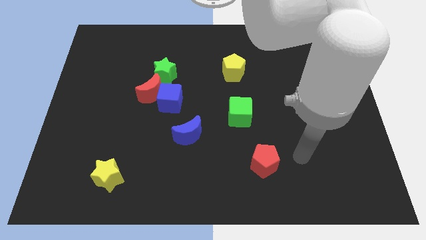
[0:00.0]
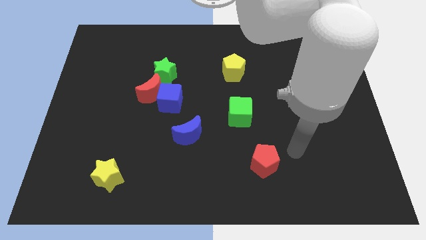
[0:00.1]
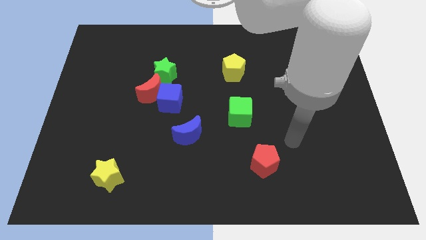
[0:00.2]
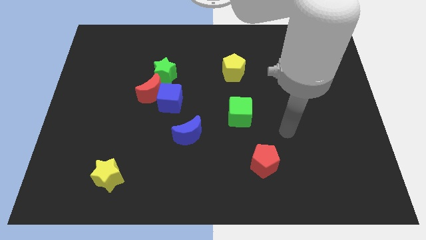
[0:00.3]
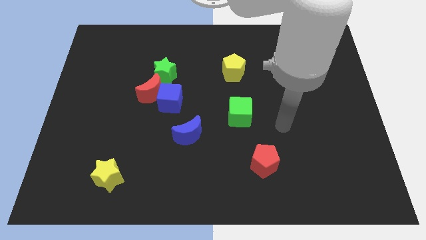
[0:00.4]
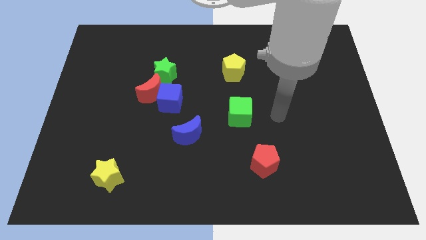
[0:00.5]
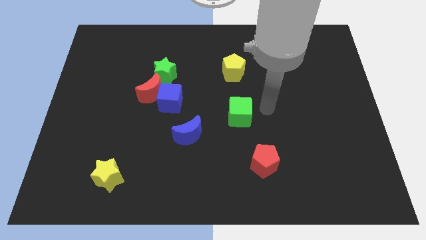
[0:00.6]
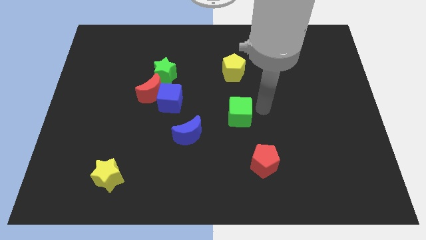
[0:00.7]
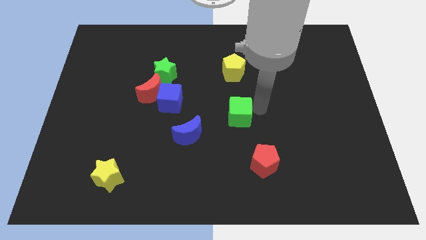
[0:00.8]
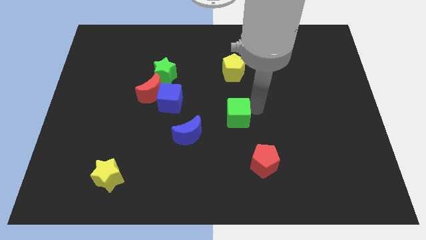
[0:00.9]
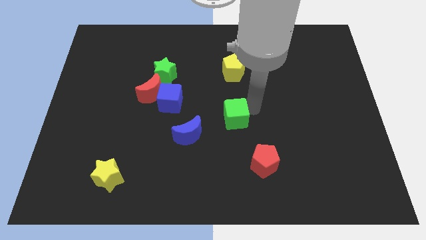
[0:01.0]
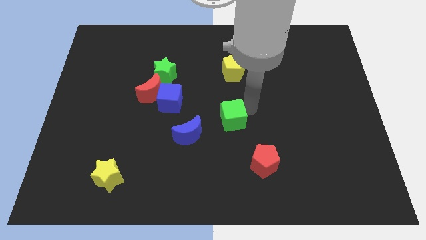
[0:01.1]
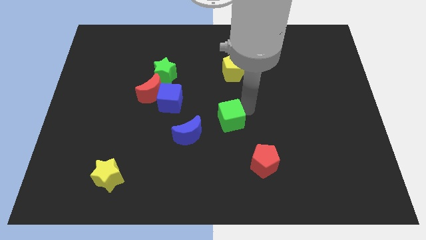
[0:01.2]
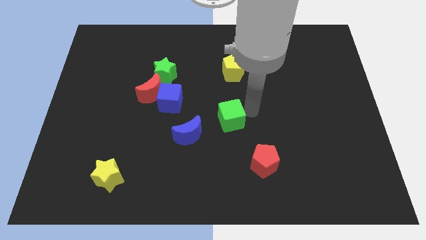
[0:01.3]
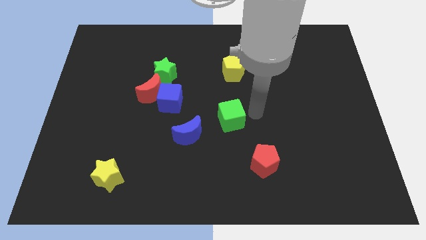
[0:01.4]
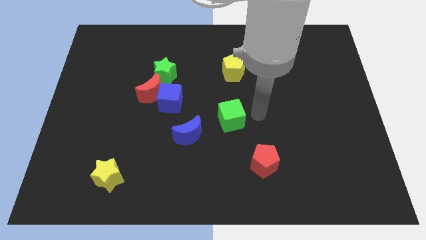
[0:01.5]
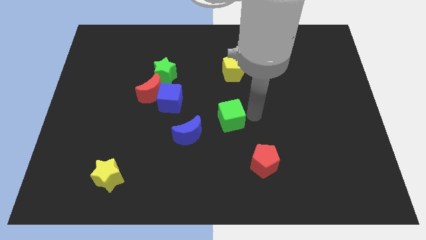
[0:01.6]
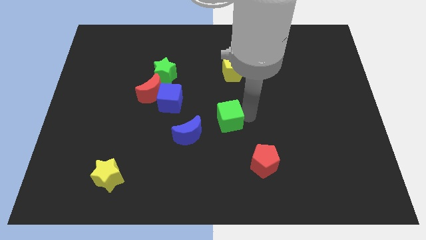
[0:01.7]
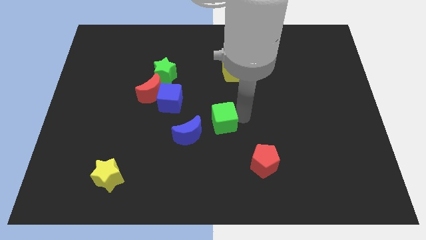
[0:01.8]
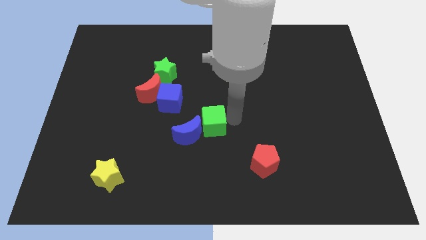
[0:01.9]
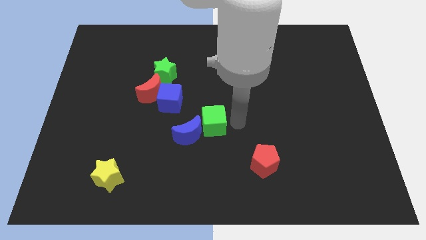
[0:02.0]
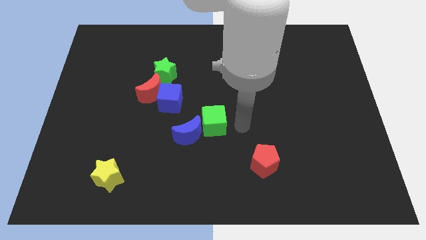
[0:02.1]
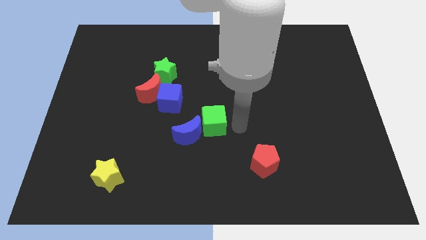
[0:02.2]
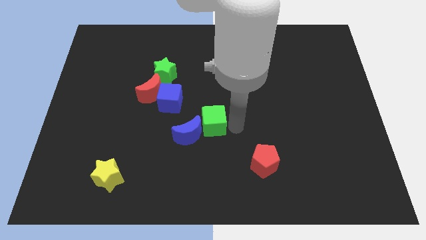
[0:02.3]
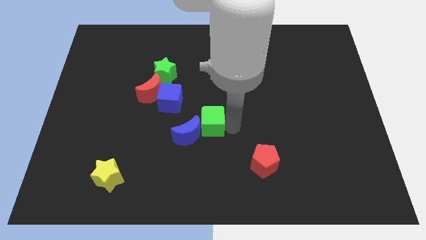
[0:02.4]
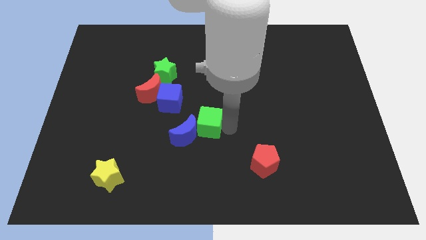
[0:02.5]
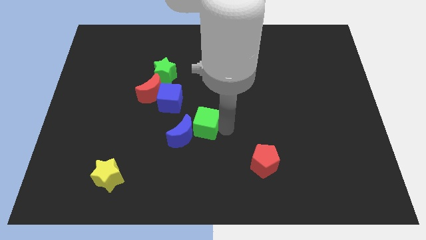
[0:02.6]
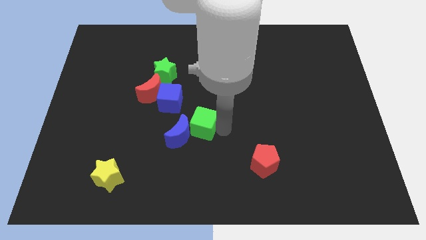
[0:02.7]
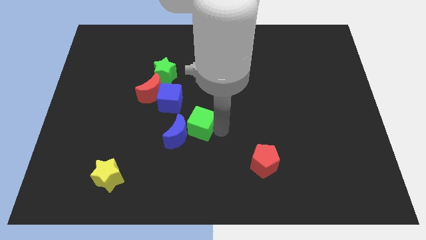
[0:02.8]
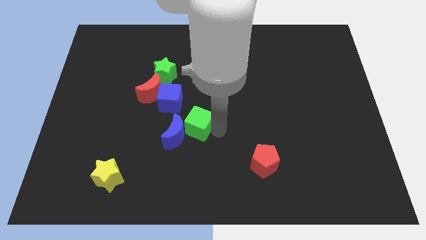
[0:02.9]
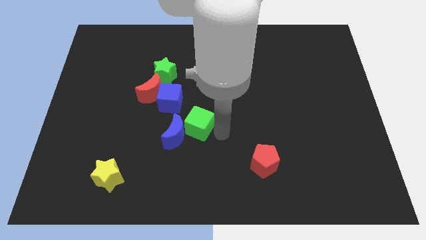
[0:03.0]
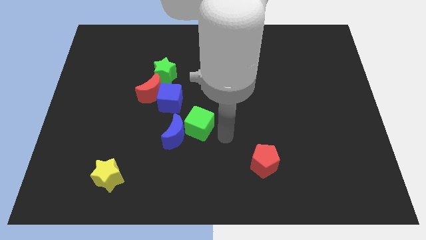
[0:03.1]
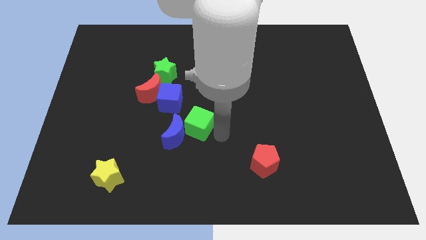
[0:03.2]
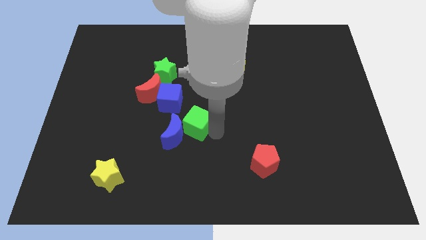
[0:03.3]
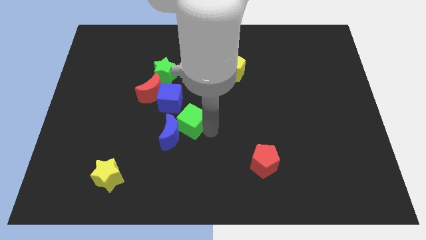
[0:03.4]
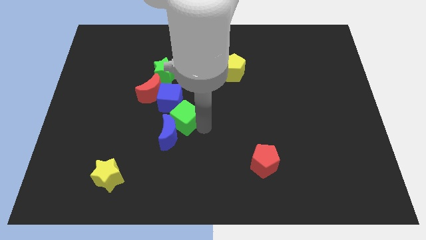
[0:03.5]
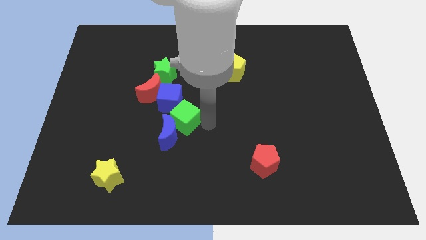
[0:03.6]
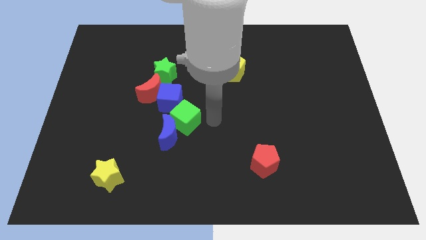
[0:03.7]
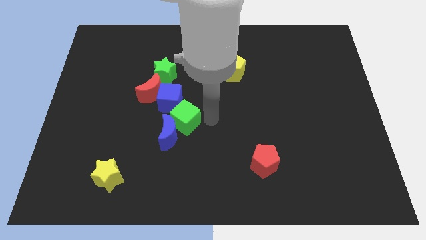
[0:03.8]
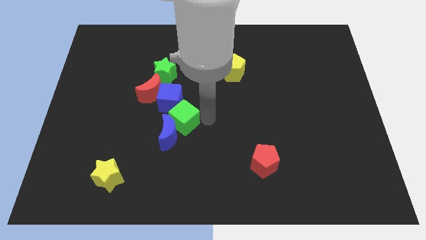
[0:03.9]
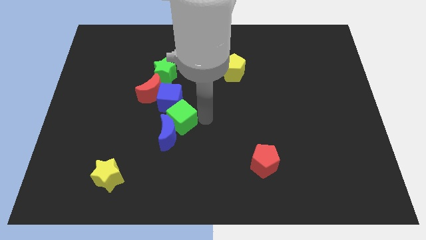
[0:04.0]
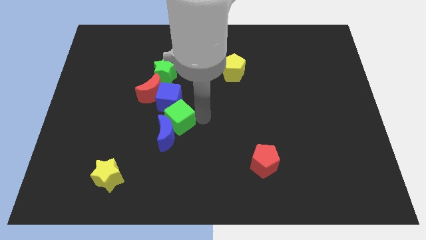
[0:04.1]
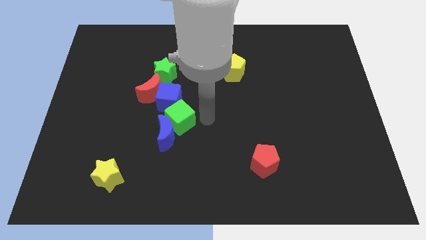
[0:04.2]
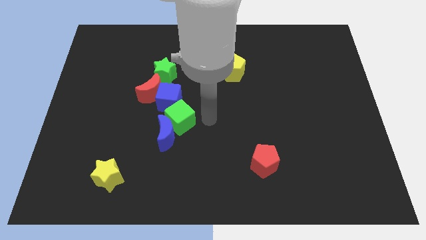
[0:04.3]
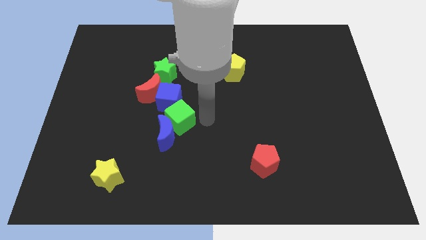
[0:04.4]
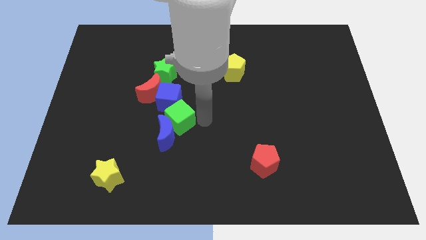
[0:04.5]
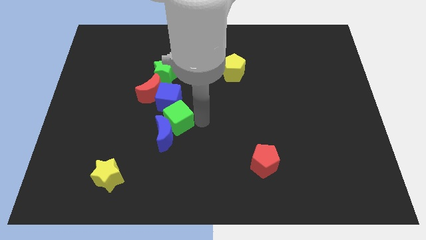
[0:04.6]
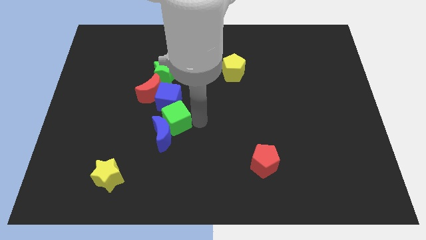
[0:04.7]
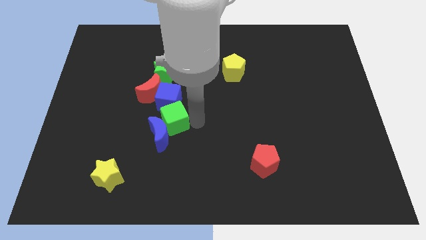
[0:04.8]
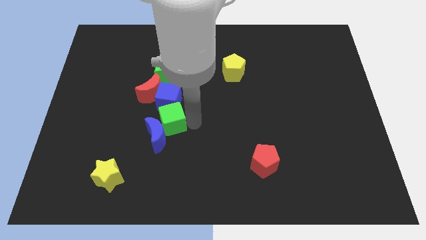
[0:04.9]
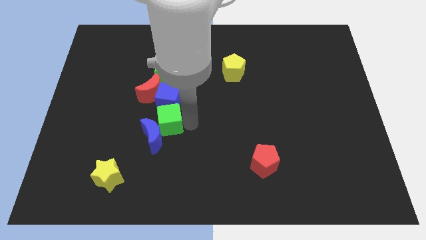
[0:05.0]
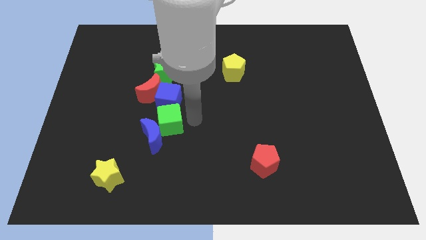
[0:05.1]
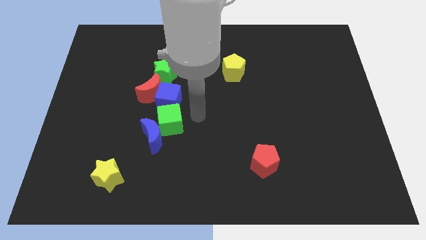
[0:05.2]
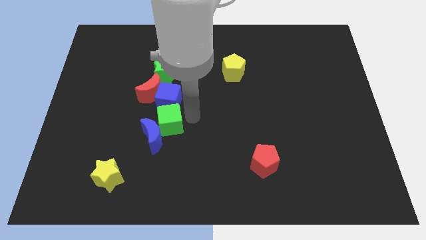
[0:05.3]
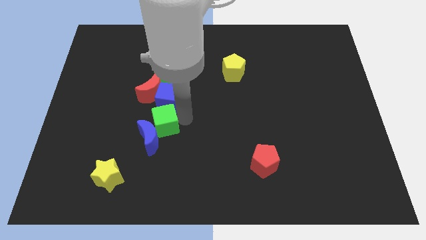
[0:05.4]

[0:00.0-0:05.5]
push the green cube below the red moon

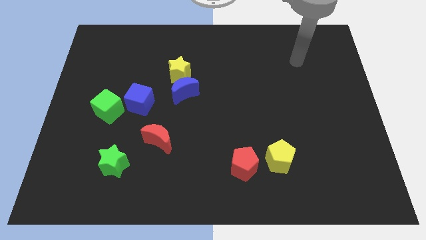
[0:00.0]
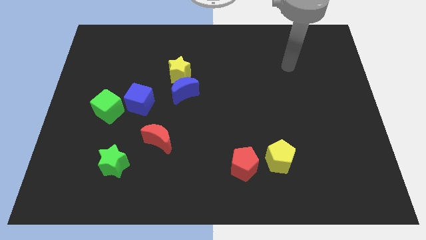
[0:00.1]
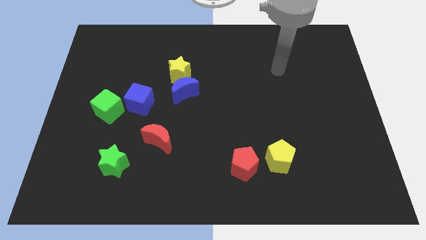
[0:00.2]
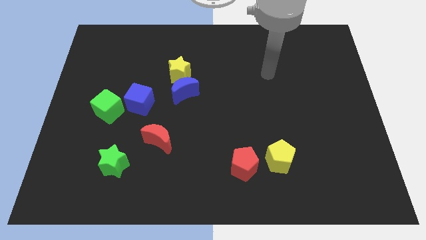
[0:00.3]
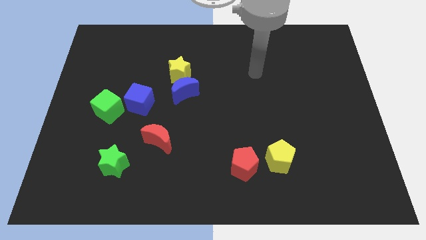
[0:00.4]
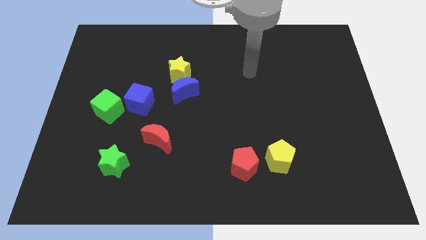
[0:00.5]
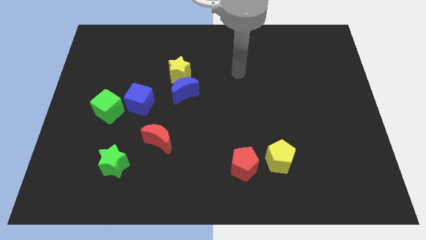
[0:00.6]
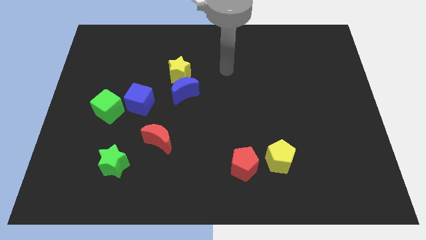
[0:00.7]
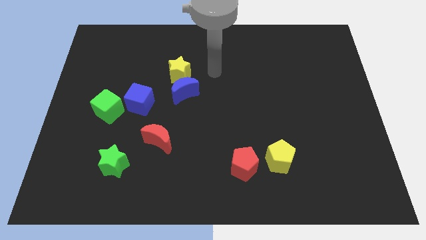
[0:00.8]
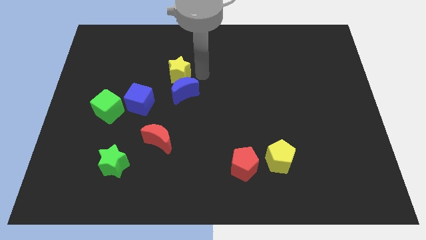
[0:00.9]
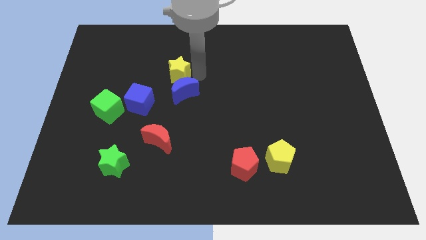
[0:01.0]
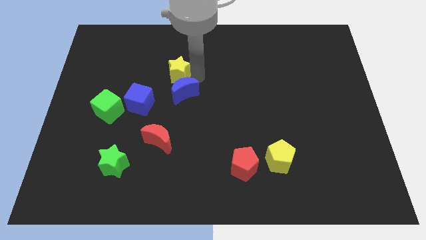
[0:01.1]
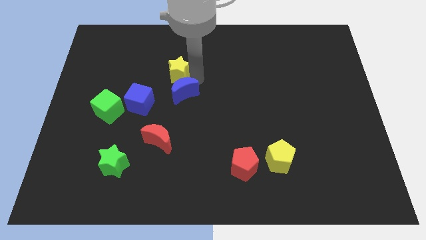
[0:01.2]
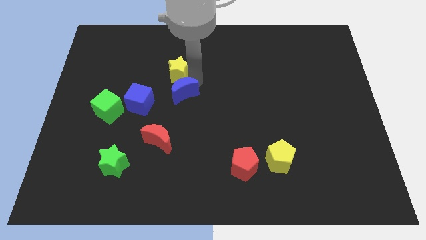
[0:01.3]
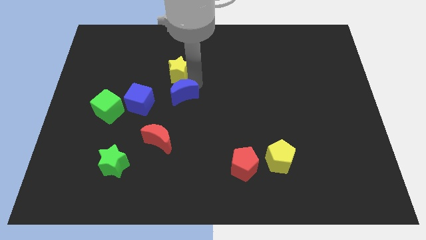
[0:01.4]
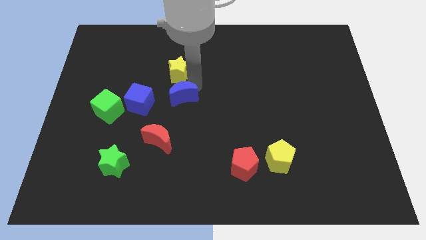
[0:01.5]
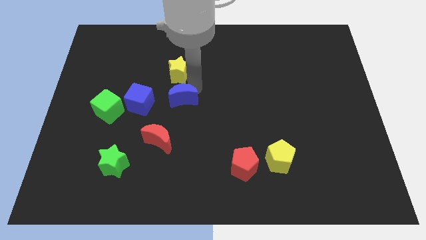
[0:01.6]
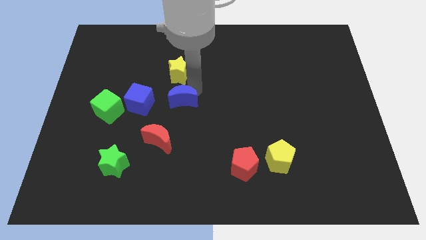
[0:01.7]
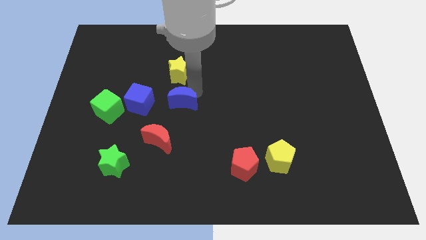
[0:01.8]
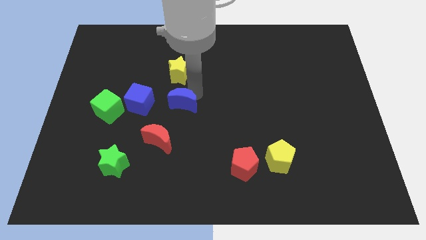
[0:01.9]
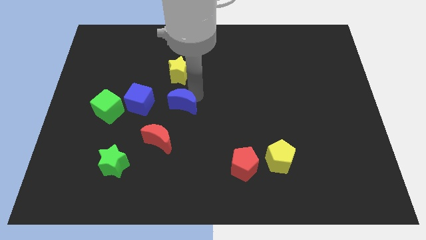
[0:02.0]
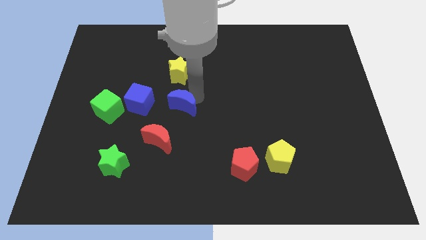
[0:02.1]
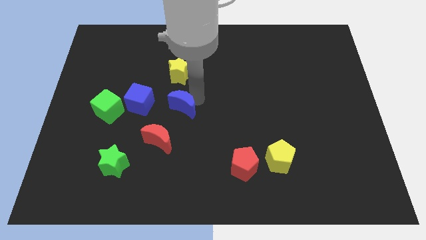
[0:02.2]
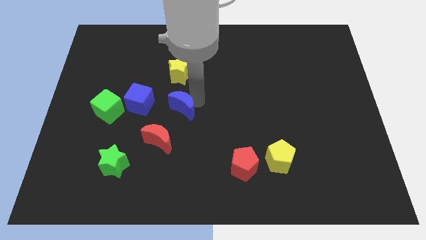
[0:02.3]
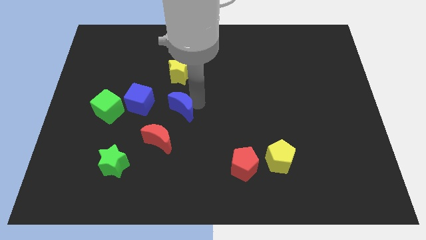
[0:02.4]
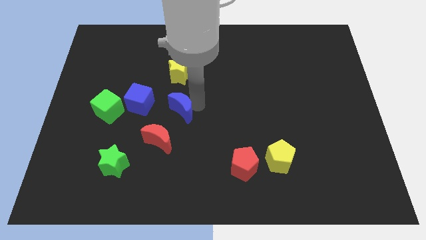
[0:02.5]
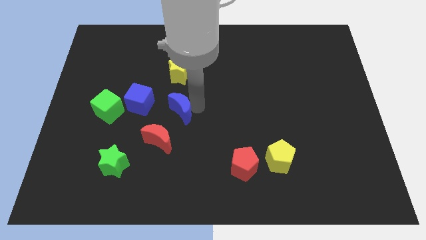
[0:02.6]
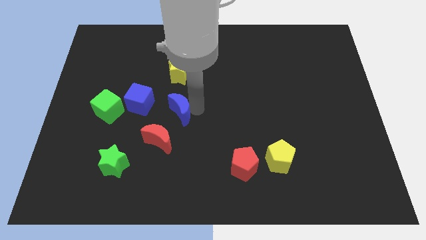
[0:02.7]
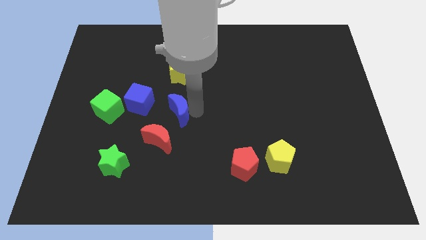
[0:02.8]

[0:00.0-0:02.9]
move the blue moon diagonally down and to the right of the blue cube
